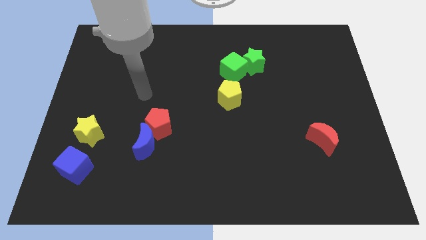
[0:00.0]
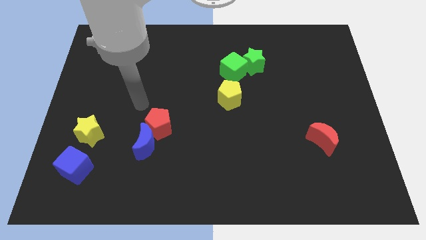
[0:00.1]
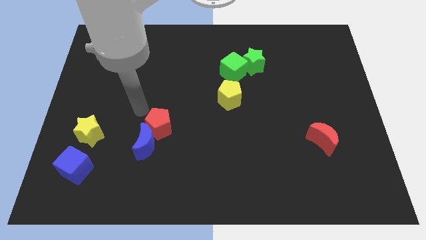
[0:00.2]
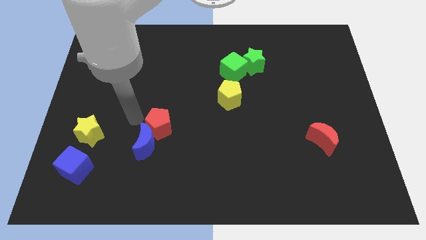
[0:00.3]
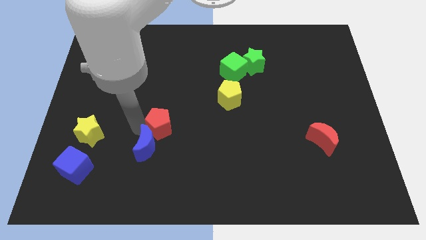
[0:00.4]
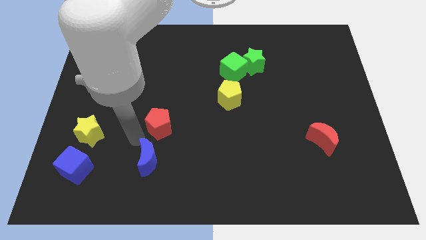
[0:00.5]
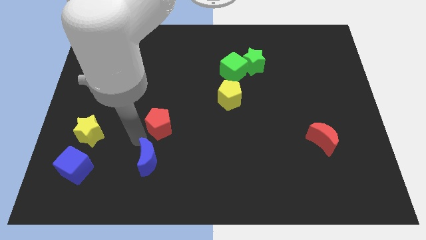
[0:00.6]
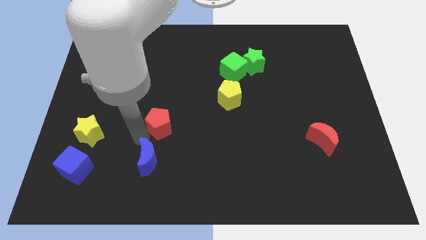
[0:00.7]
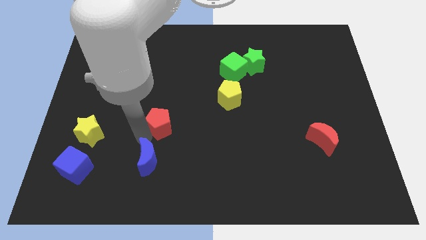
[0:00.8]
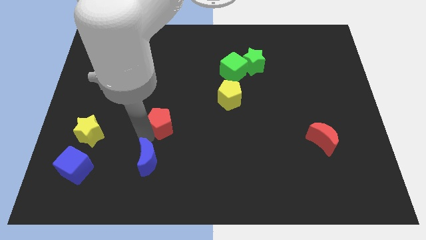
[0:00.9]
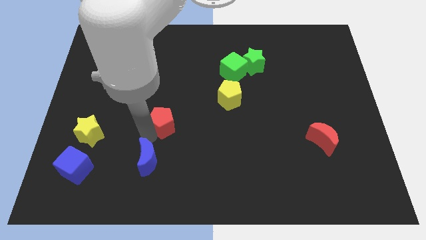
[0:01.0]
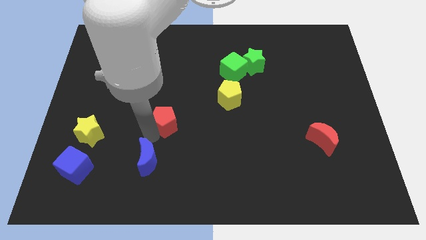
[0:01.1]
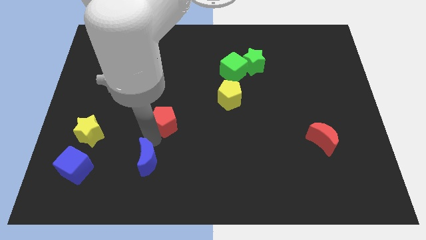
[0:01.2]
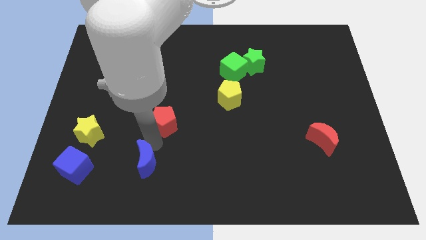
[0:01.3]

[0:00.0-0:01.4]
pull the red pentagon apart from the blue moon

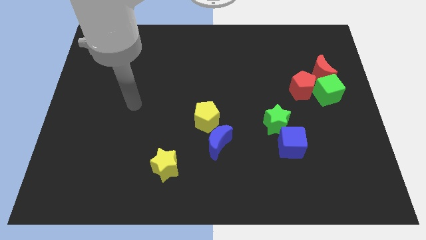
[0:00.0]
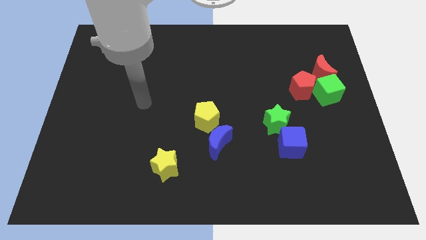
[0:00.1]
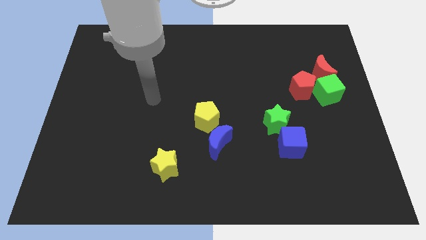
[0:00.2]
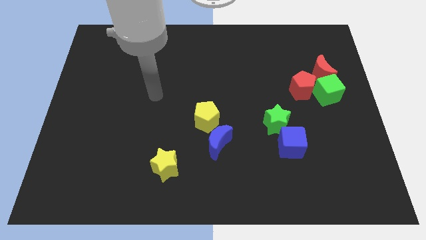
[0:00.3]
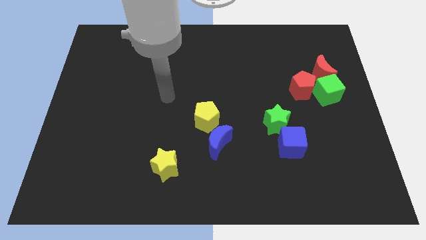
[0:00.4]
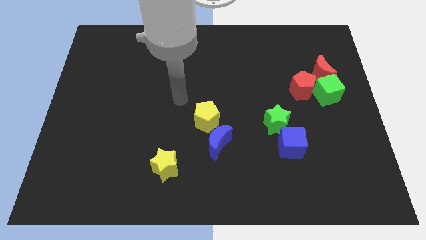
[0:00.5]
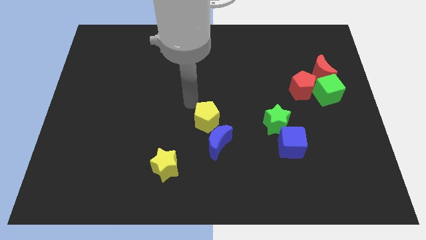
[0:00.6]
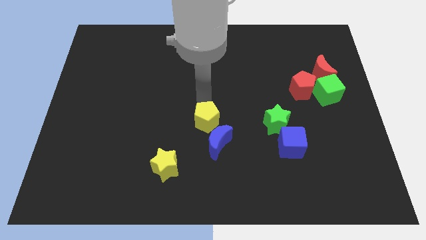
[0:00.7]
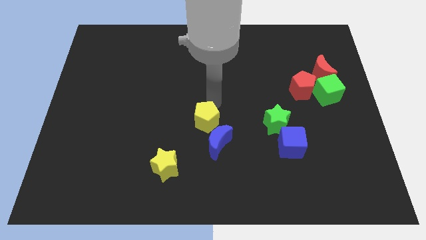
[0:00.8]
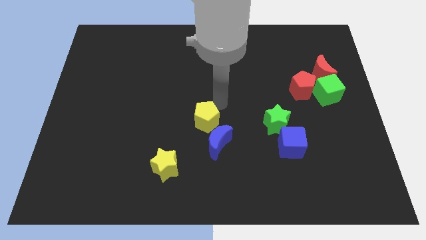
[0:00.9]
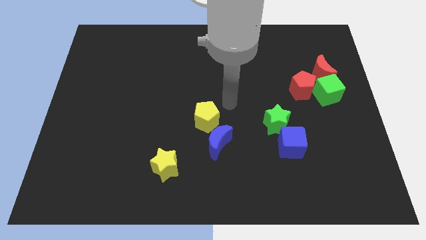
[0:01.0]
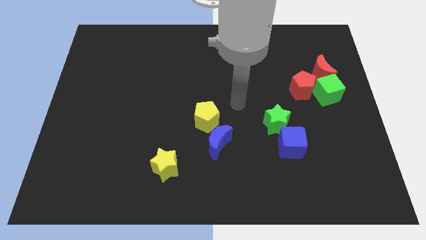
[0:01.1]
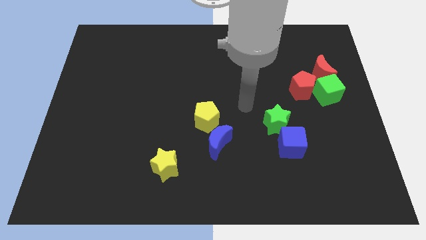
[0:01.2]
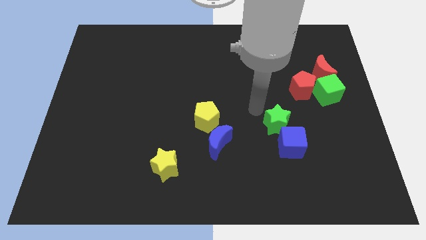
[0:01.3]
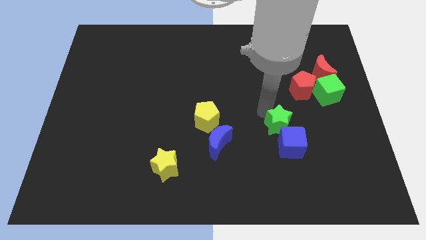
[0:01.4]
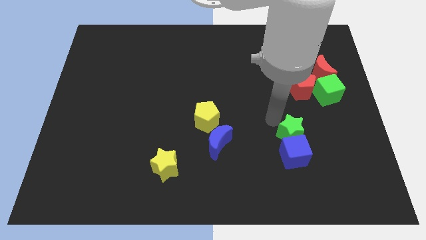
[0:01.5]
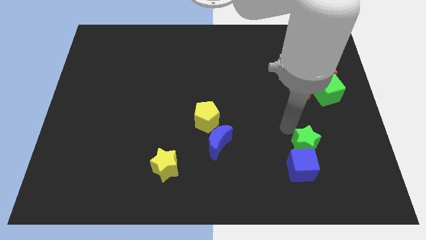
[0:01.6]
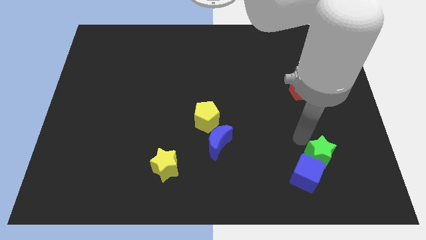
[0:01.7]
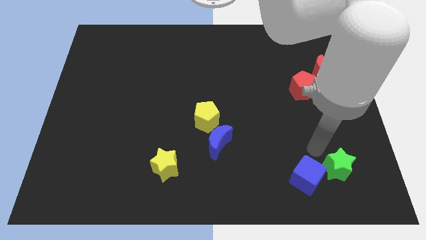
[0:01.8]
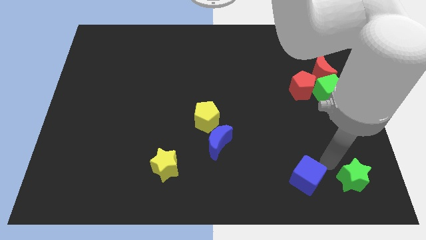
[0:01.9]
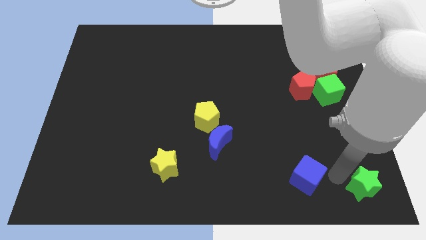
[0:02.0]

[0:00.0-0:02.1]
pull the blue cube apart from the green star

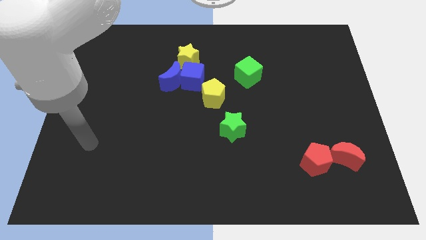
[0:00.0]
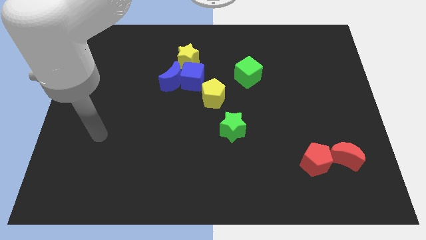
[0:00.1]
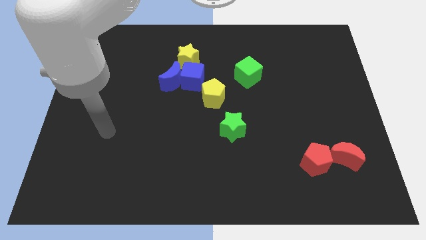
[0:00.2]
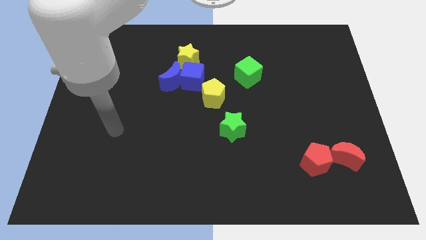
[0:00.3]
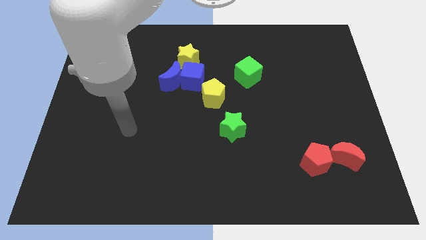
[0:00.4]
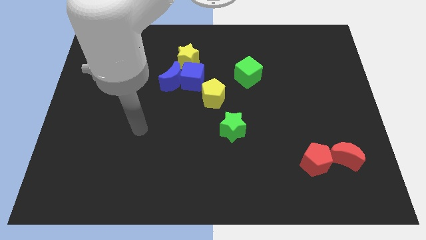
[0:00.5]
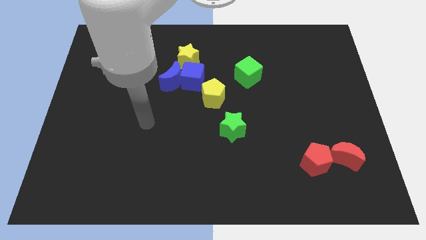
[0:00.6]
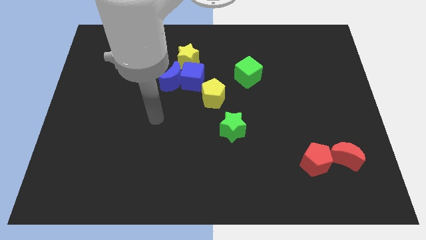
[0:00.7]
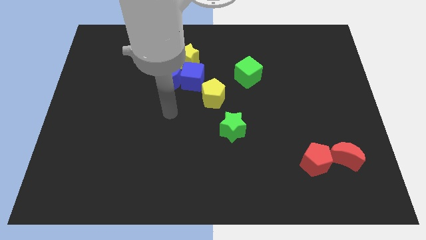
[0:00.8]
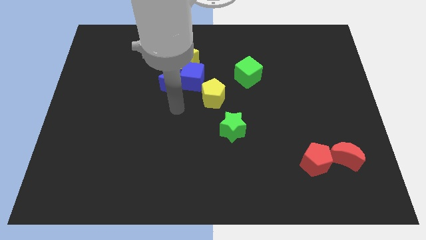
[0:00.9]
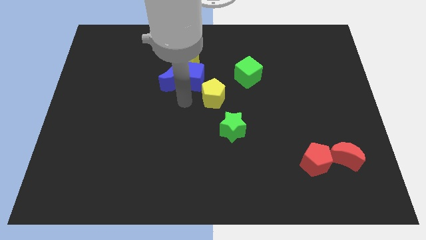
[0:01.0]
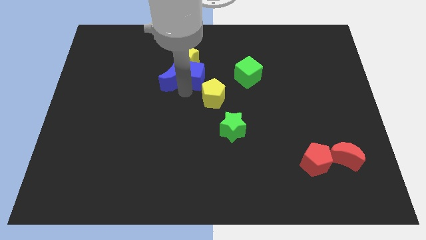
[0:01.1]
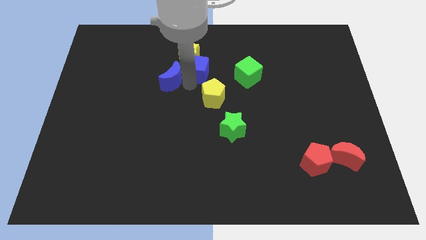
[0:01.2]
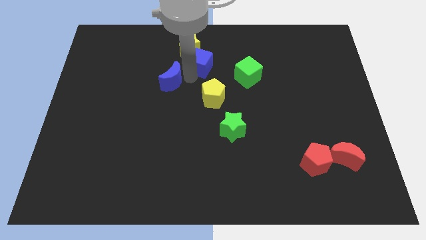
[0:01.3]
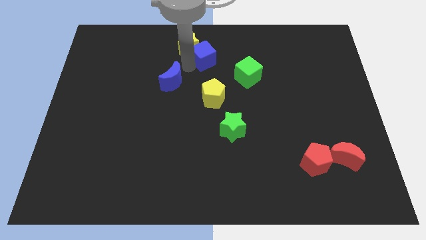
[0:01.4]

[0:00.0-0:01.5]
pull the blue moon apart from the blue cube and yellow star

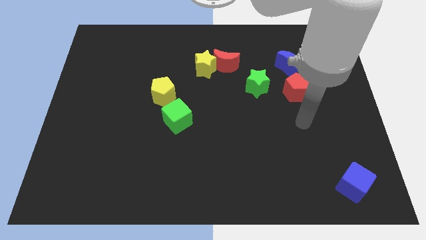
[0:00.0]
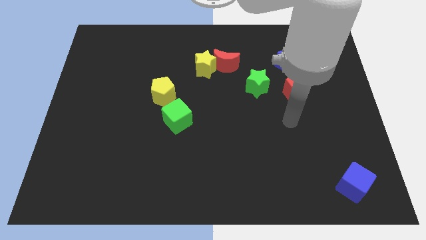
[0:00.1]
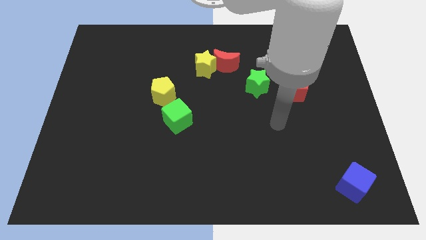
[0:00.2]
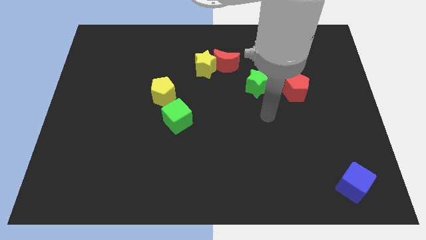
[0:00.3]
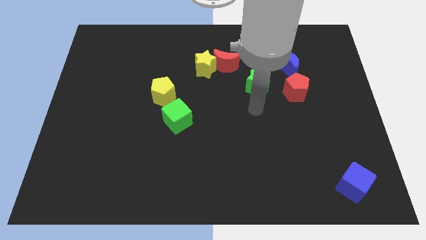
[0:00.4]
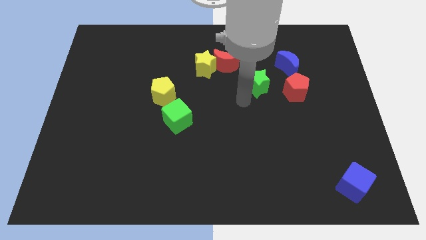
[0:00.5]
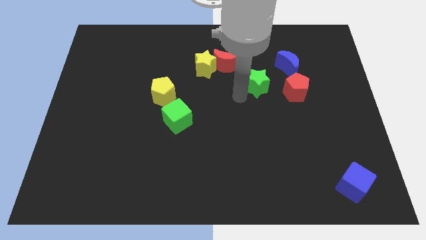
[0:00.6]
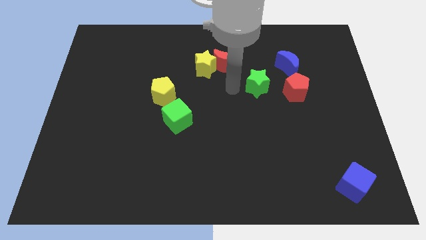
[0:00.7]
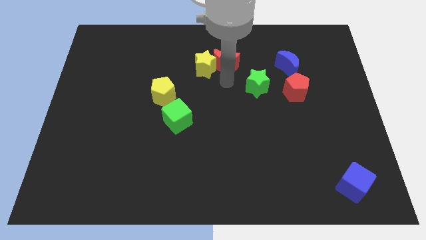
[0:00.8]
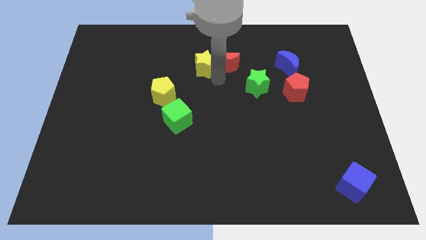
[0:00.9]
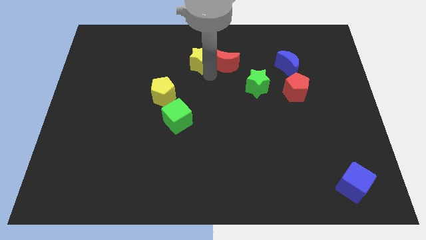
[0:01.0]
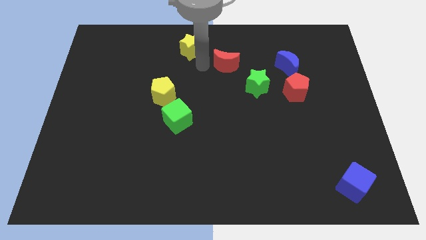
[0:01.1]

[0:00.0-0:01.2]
separate the red moon from the yellow star

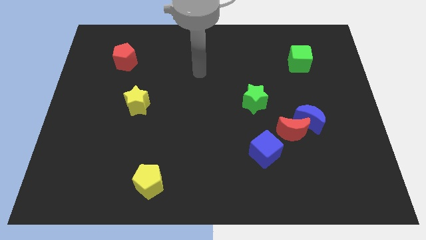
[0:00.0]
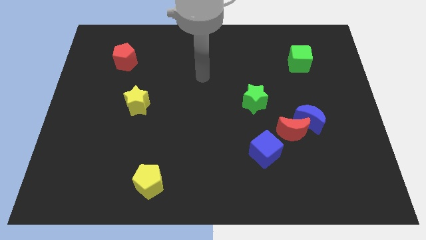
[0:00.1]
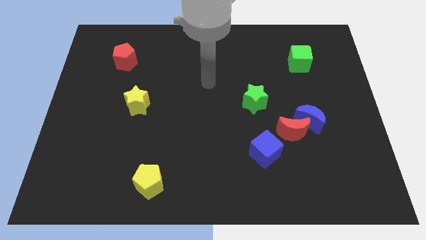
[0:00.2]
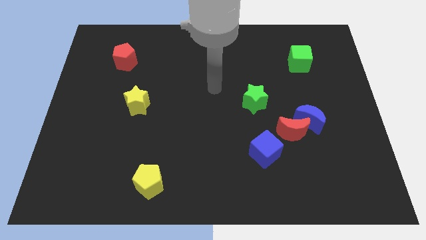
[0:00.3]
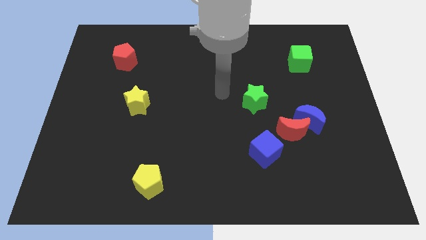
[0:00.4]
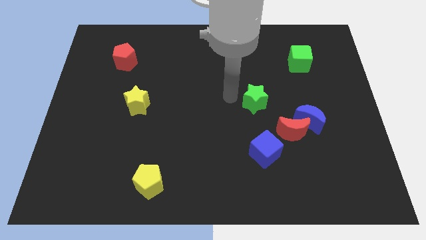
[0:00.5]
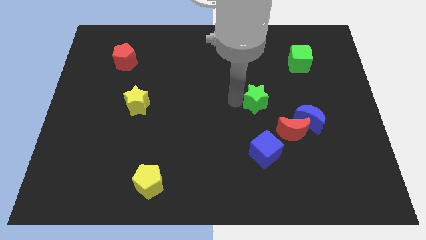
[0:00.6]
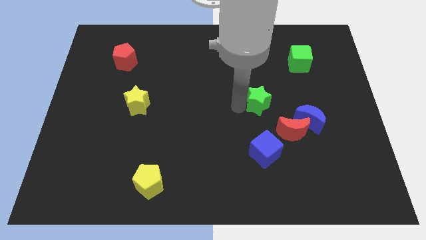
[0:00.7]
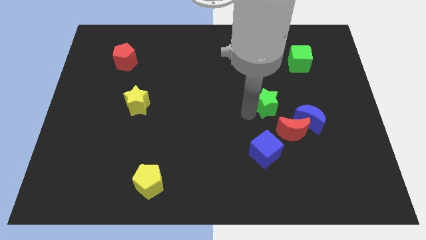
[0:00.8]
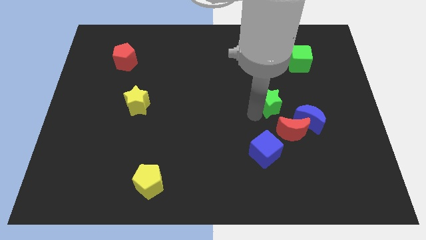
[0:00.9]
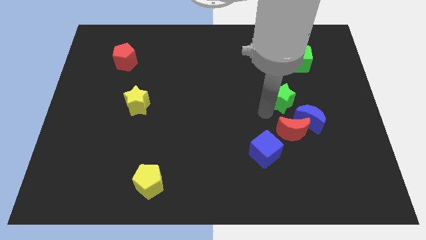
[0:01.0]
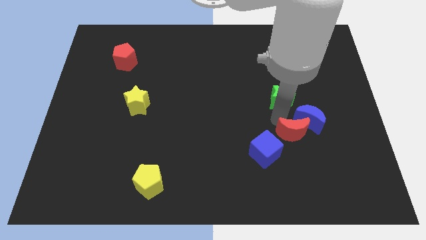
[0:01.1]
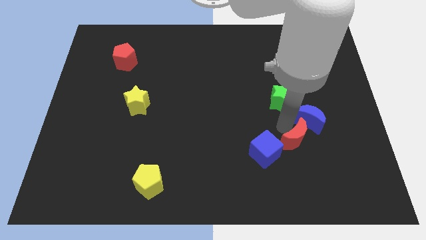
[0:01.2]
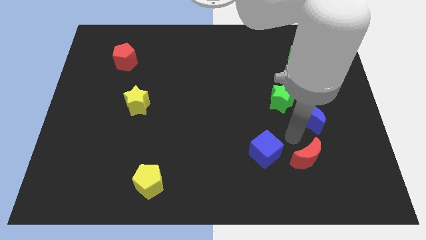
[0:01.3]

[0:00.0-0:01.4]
move the blue moon away from the red moon

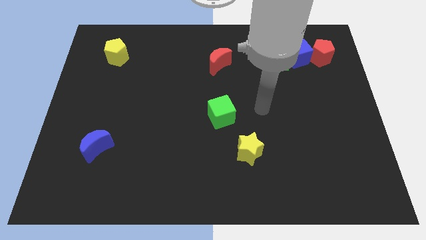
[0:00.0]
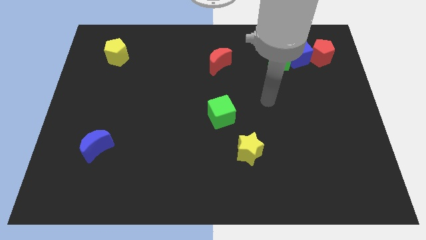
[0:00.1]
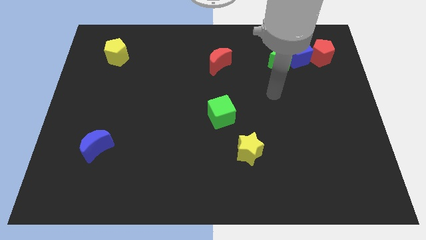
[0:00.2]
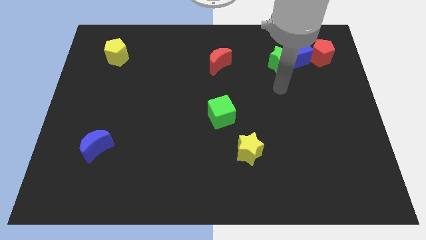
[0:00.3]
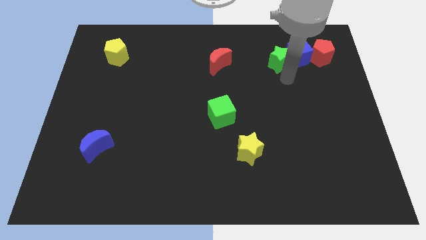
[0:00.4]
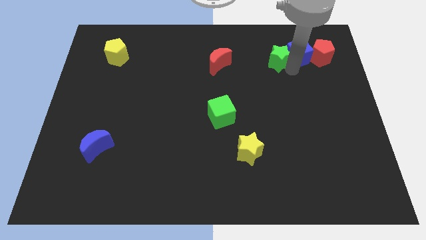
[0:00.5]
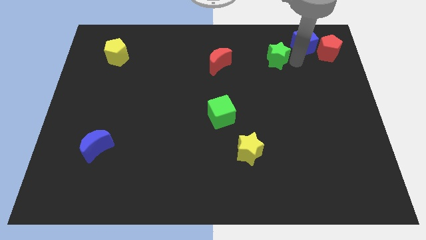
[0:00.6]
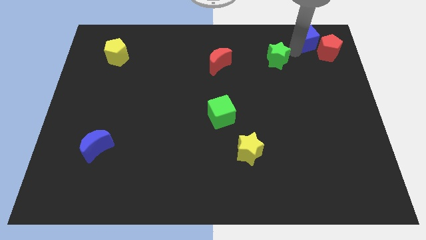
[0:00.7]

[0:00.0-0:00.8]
separate the green star from the blue cube

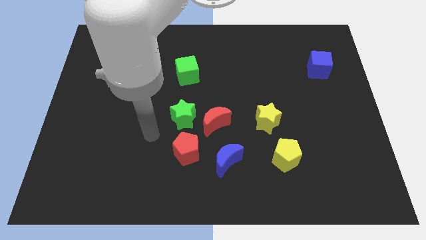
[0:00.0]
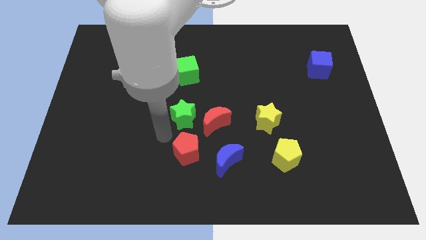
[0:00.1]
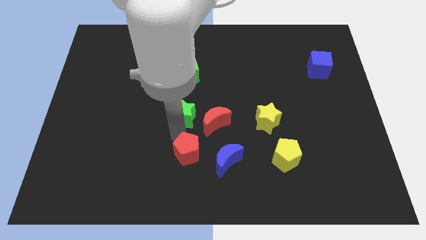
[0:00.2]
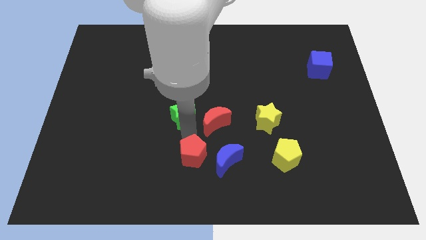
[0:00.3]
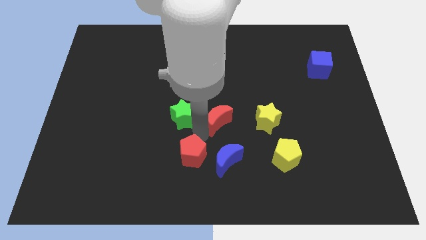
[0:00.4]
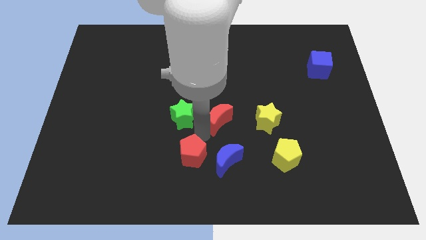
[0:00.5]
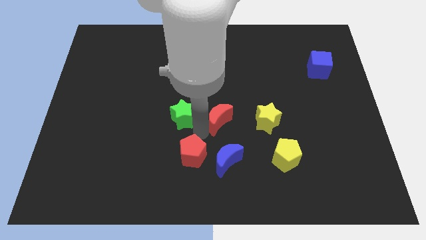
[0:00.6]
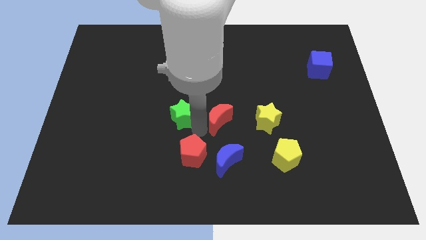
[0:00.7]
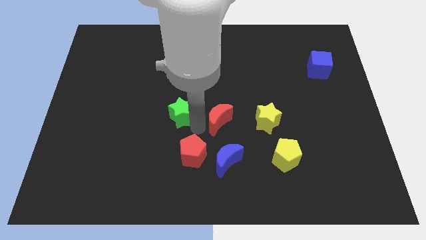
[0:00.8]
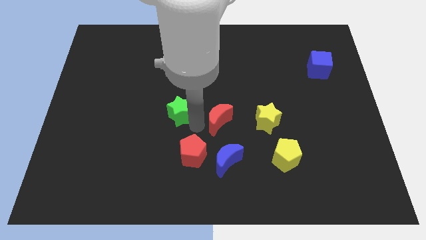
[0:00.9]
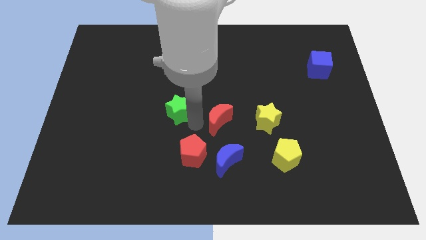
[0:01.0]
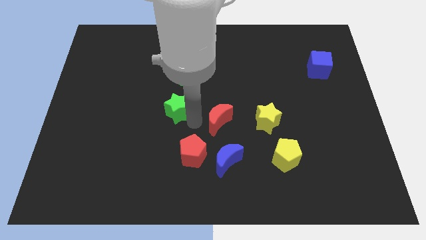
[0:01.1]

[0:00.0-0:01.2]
move the green star away from the red moon and red pentagon
